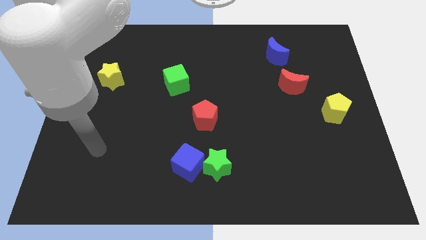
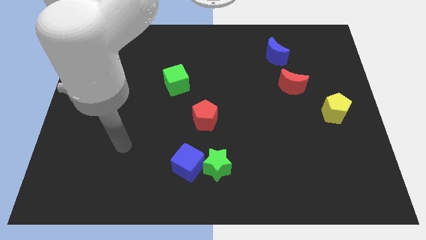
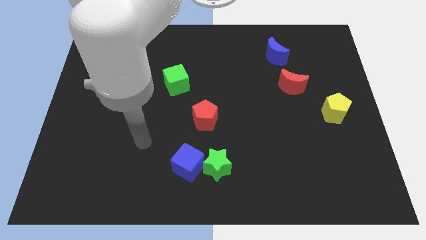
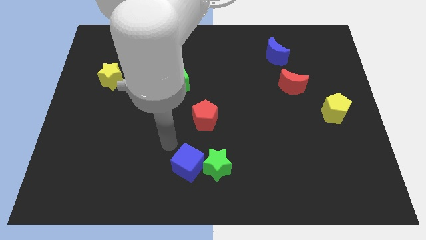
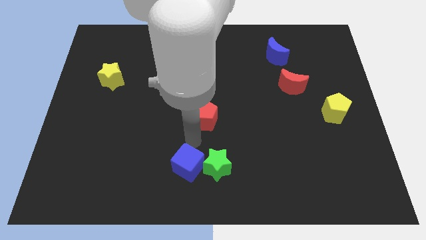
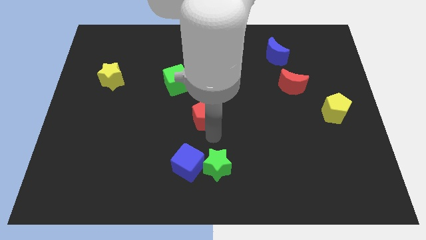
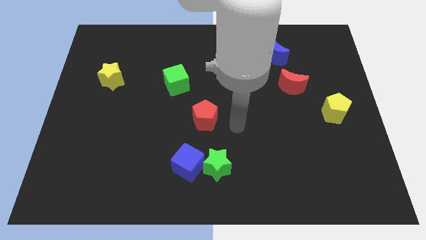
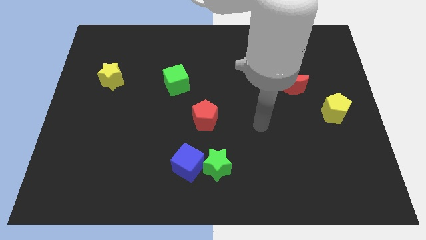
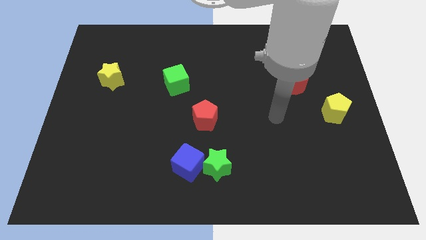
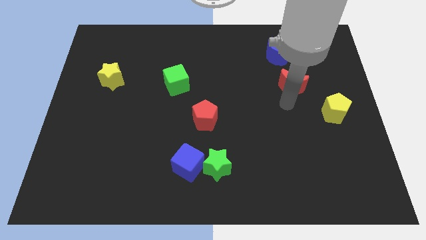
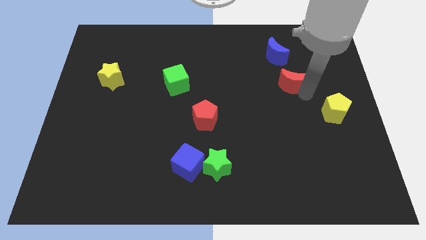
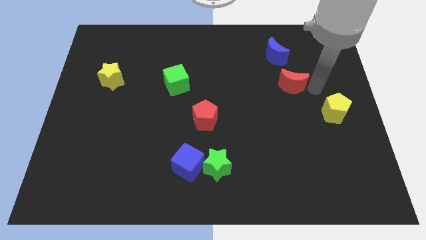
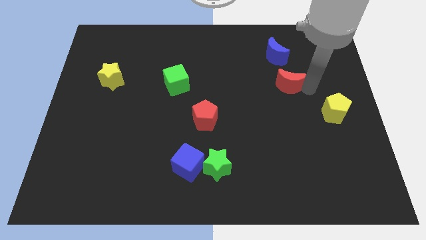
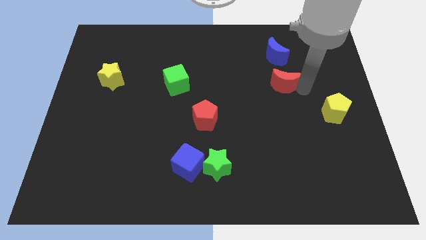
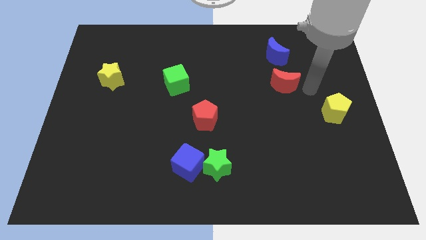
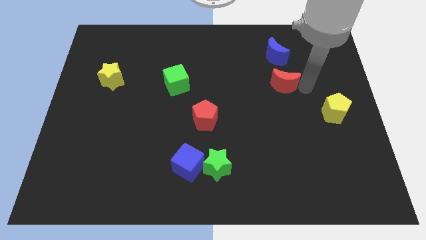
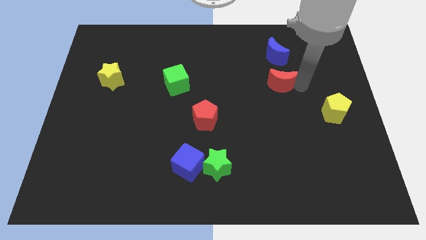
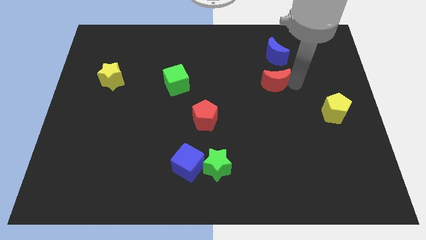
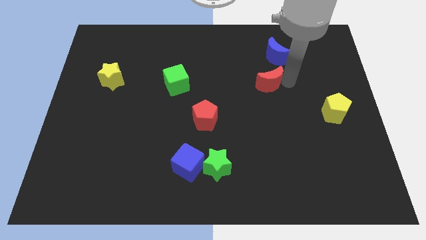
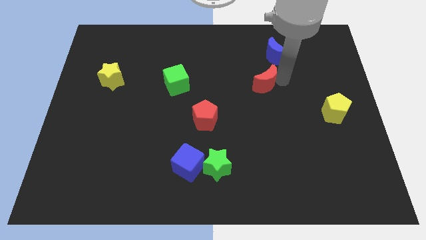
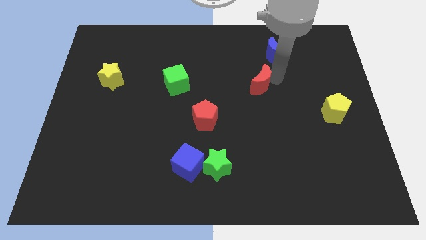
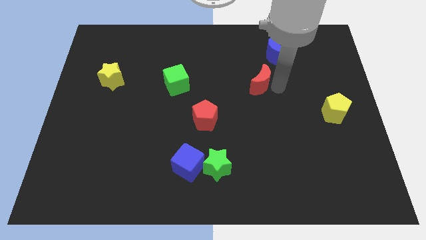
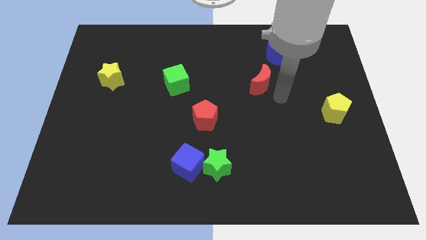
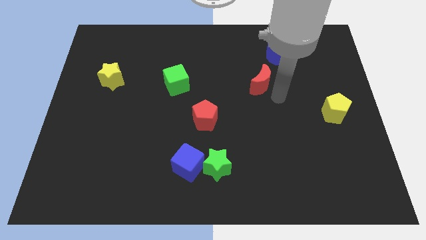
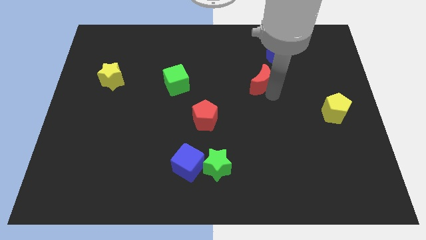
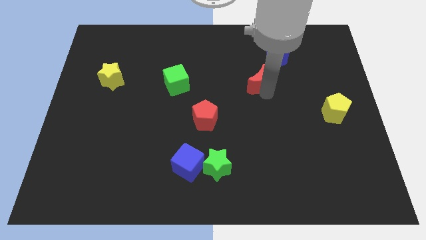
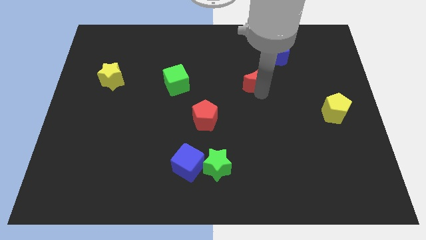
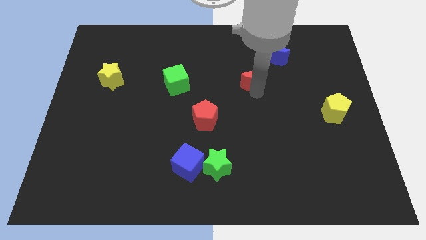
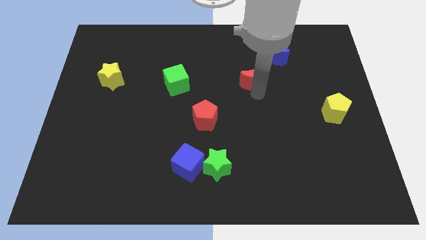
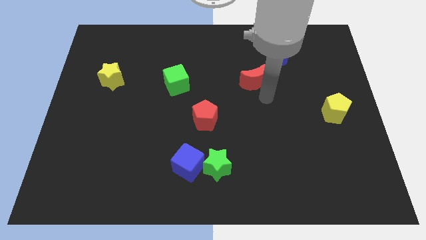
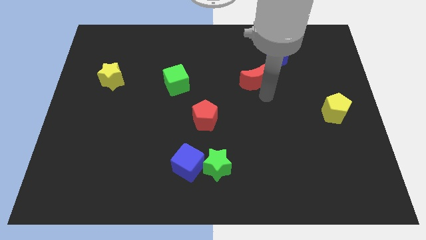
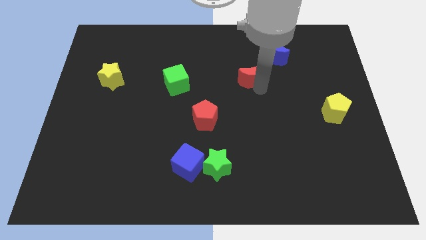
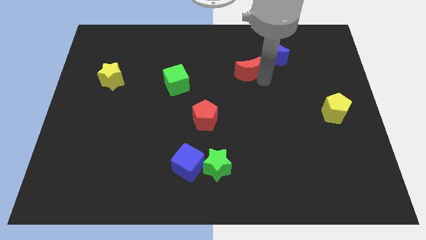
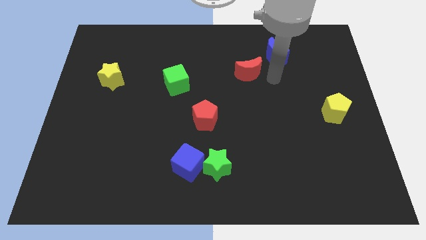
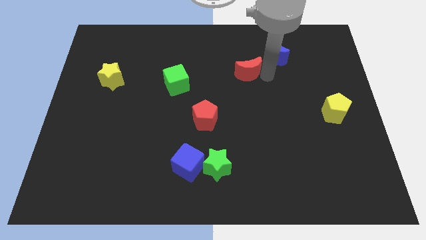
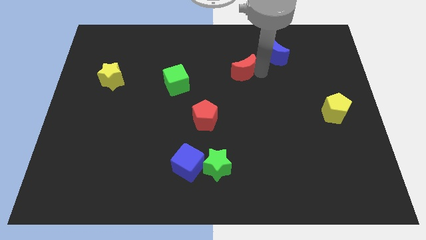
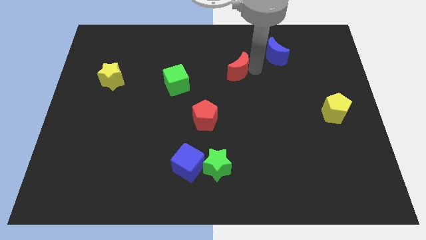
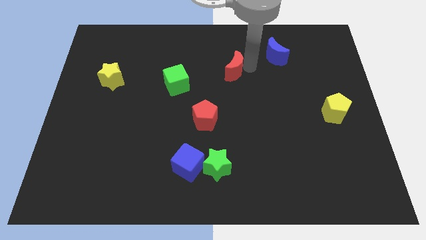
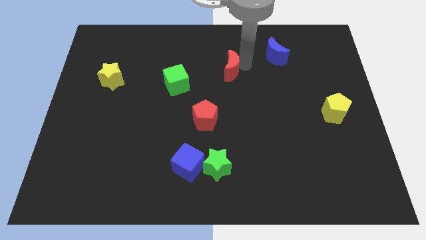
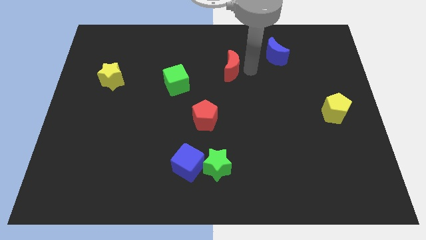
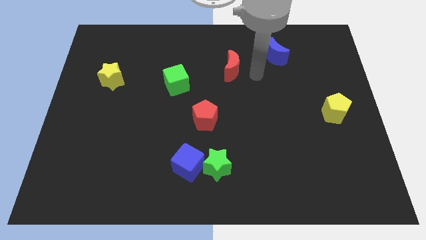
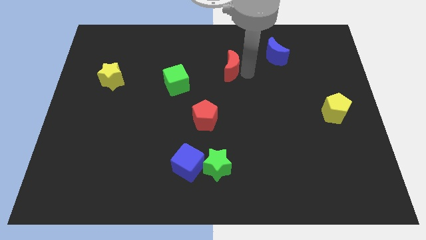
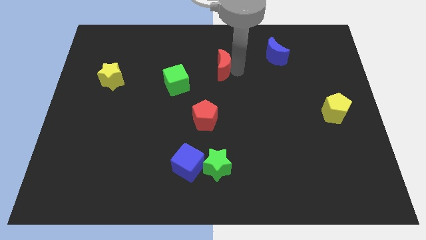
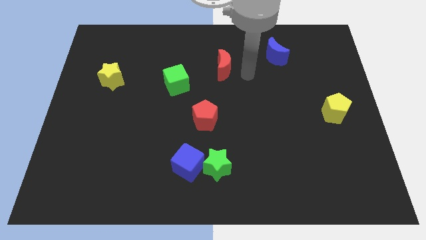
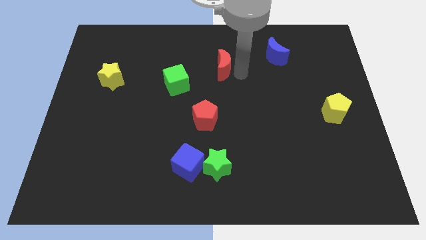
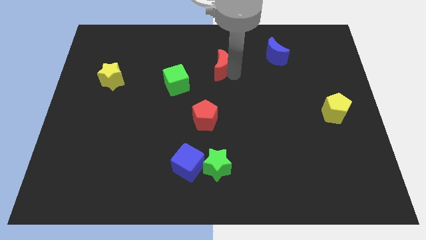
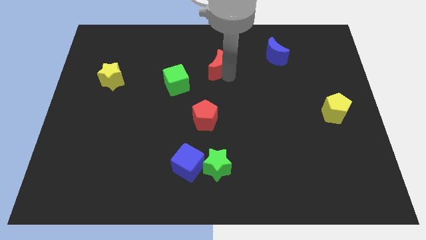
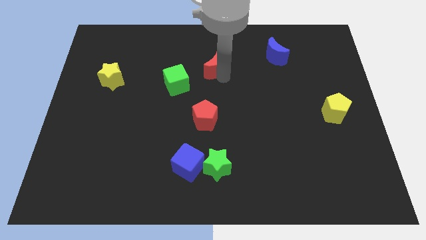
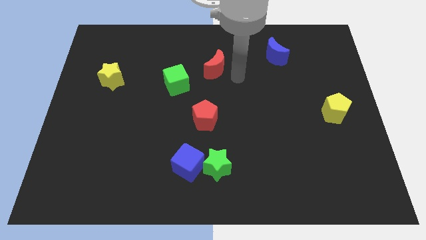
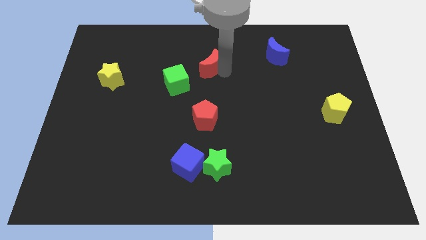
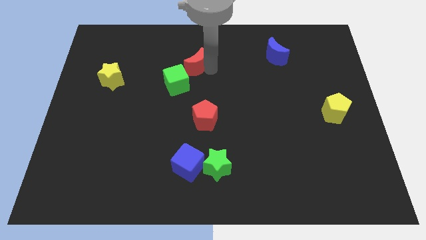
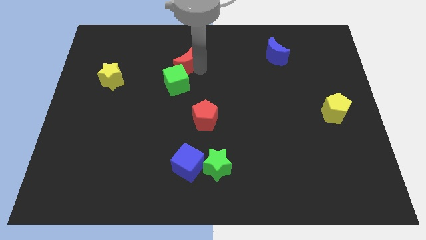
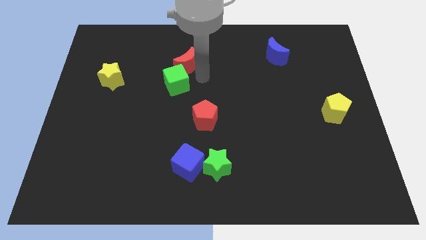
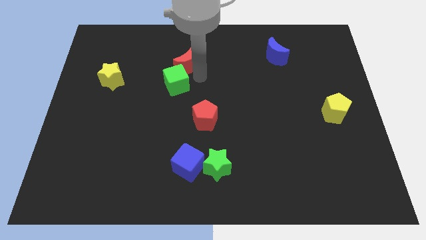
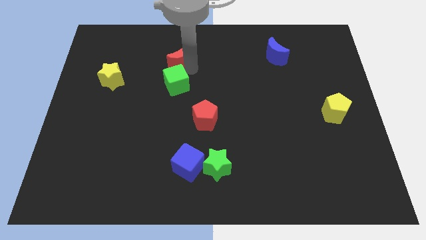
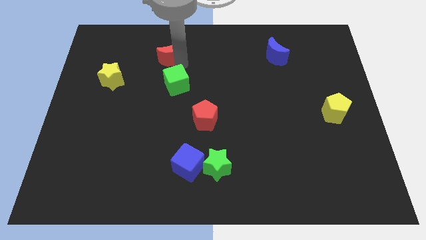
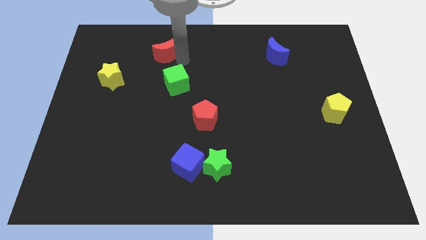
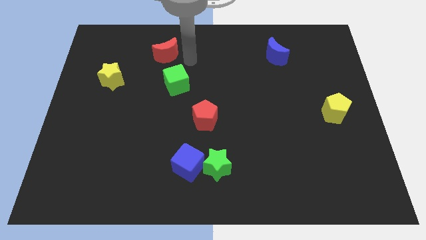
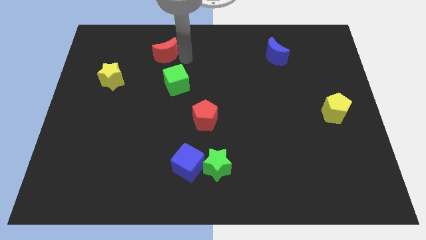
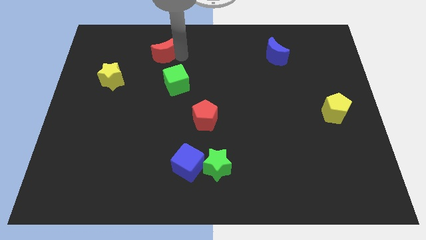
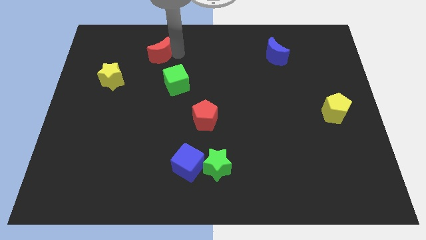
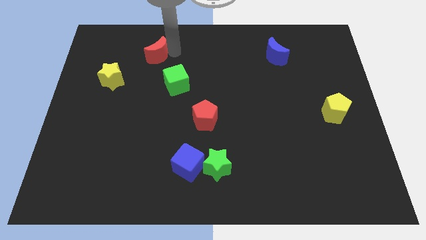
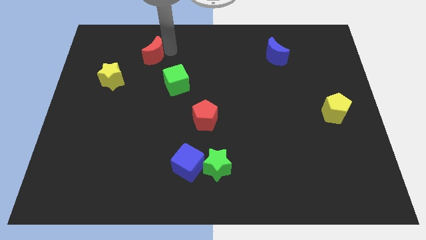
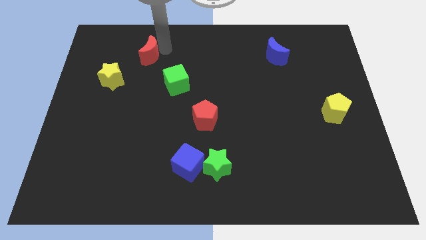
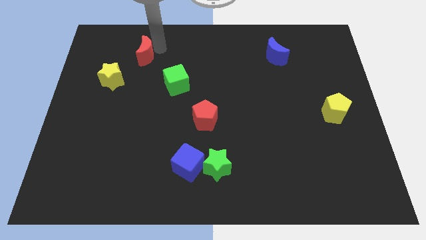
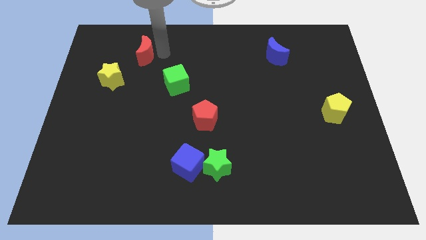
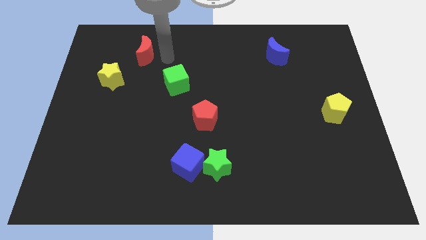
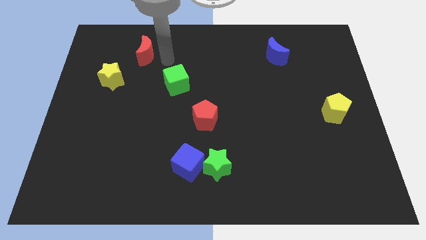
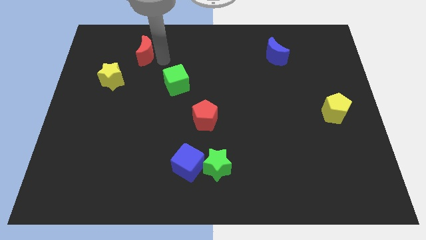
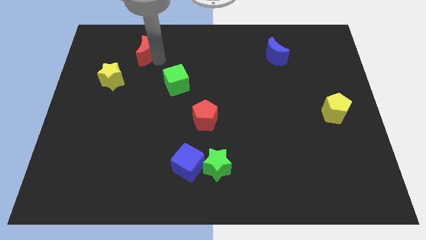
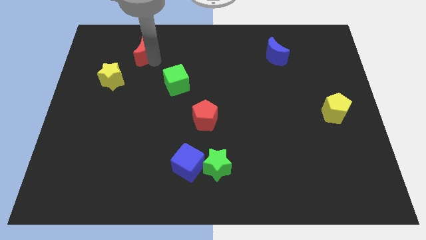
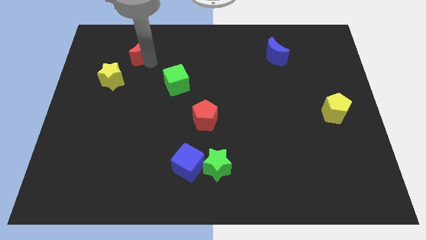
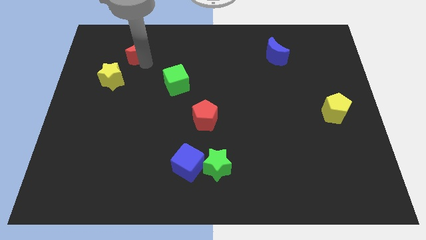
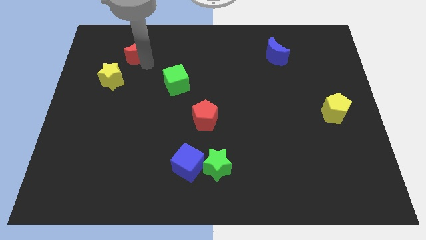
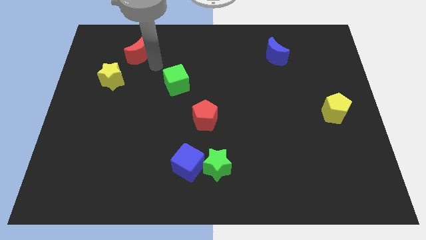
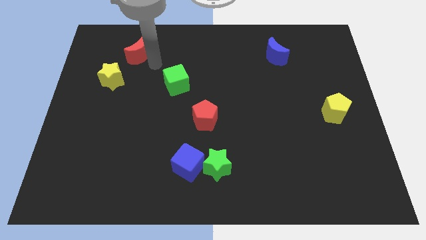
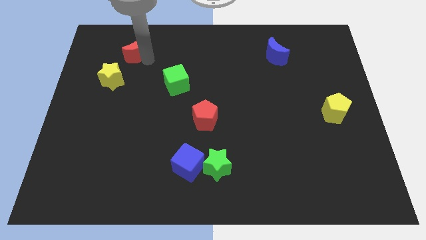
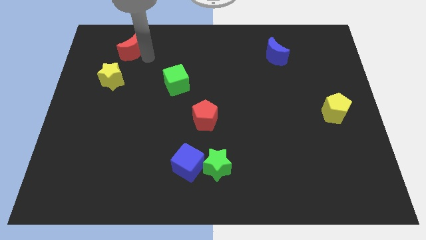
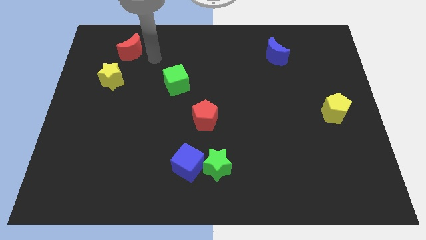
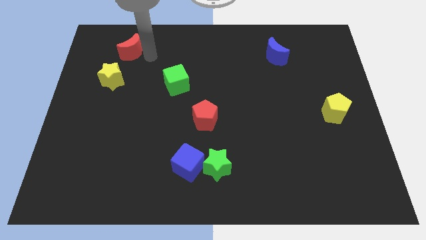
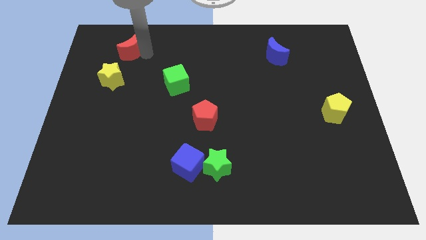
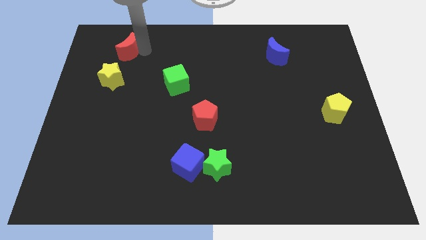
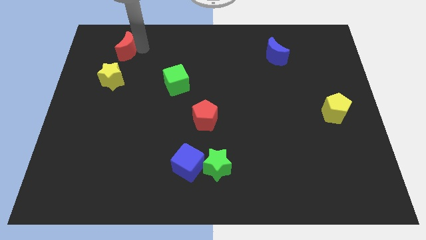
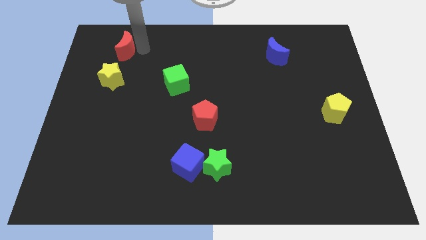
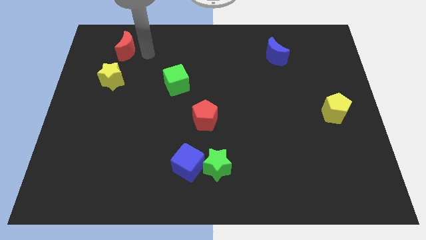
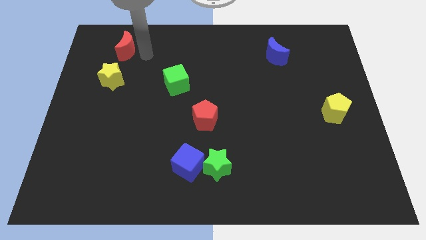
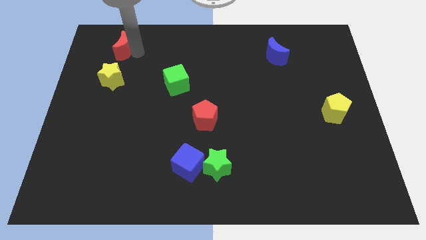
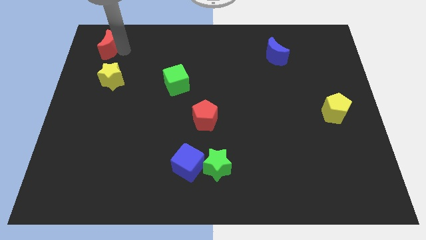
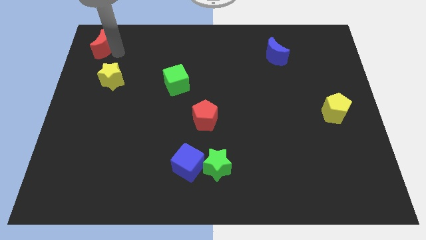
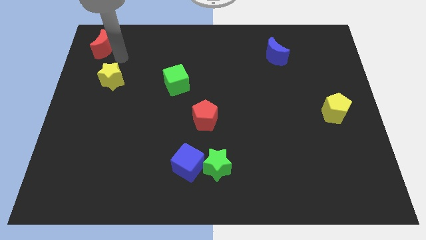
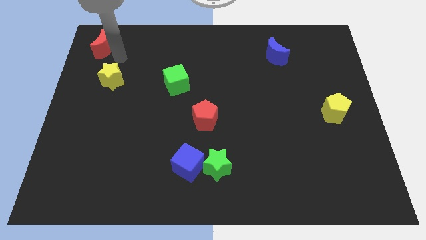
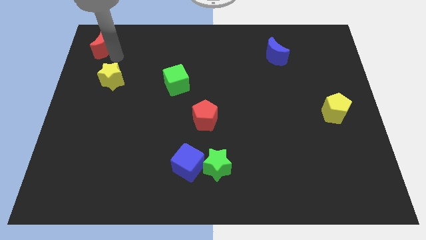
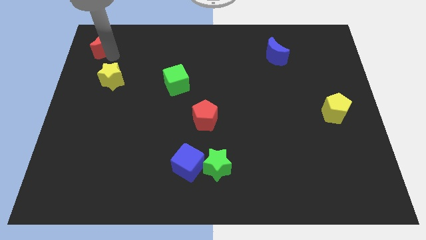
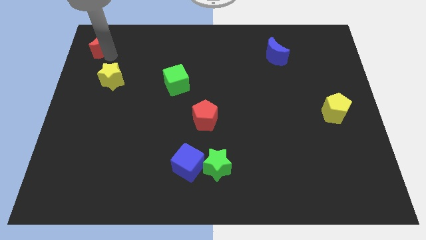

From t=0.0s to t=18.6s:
put the red moon to the top left
